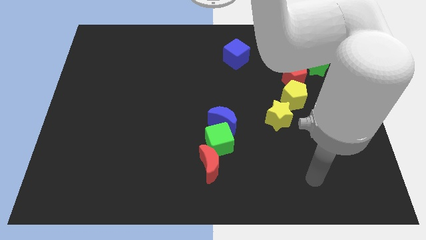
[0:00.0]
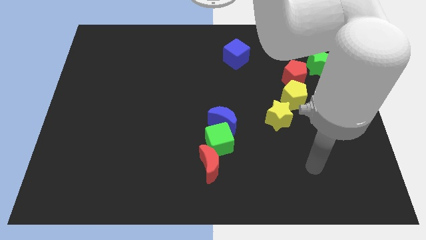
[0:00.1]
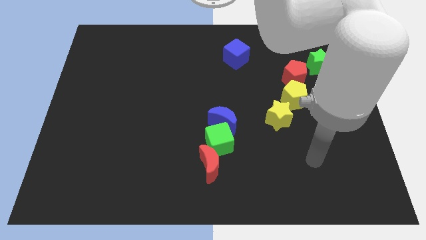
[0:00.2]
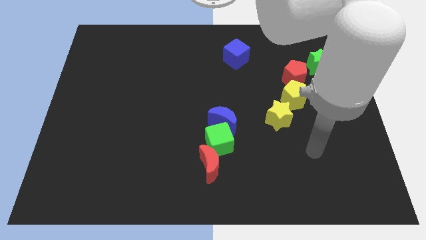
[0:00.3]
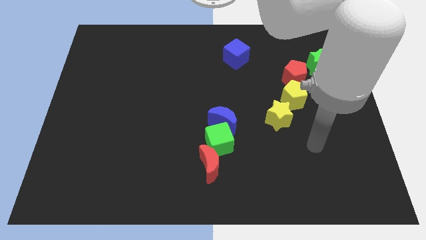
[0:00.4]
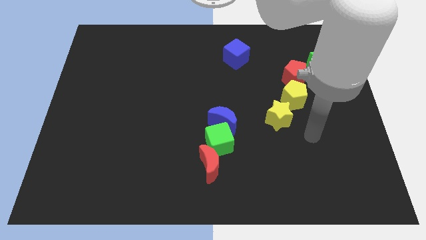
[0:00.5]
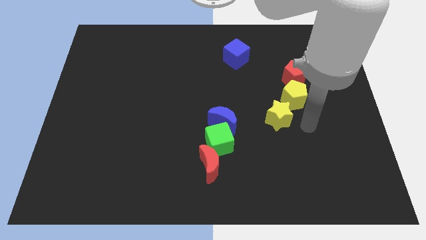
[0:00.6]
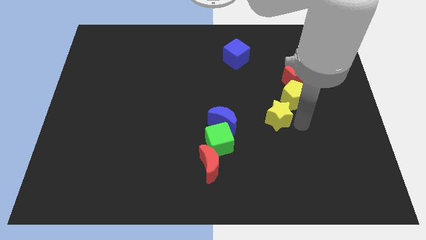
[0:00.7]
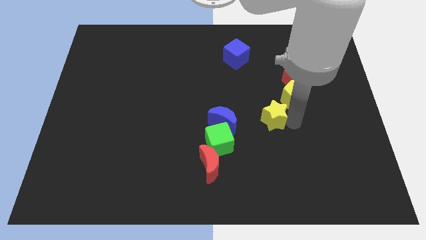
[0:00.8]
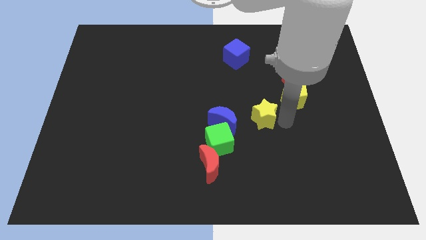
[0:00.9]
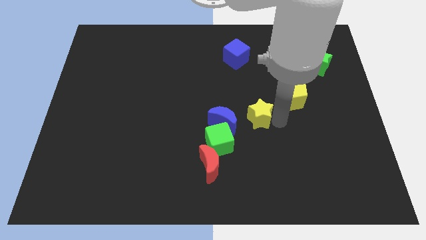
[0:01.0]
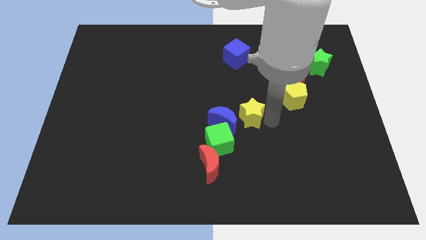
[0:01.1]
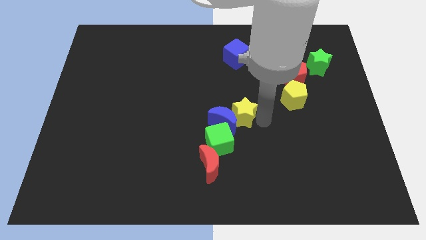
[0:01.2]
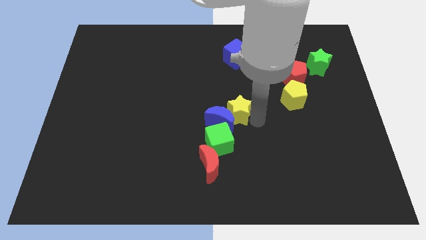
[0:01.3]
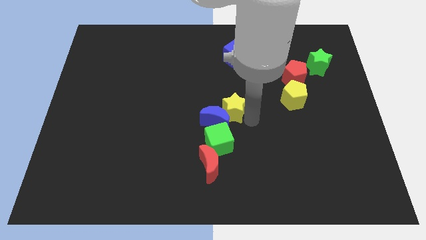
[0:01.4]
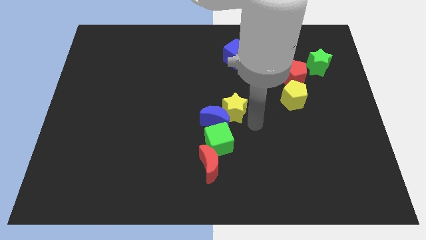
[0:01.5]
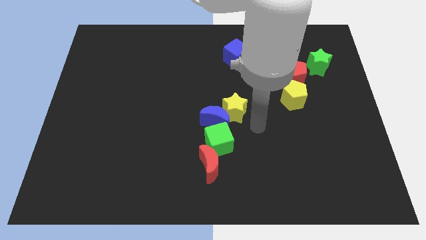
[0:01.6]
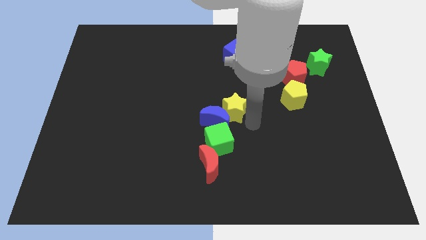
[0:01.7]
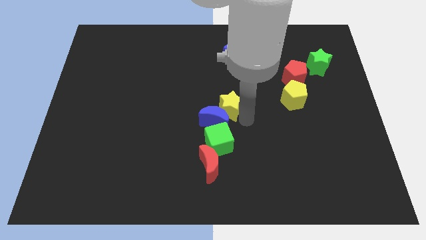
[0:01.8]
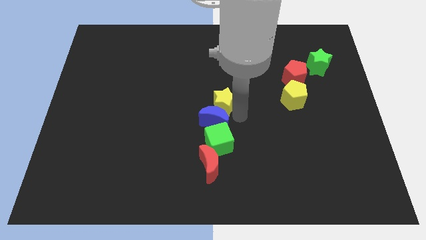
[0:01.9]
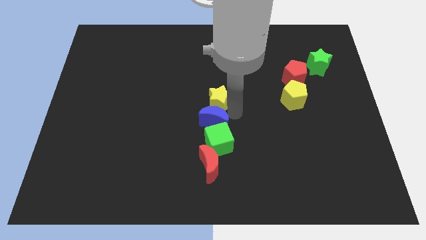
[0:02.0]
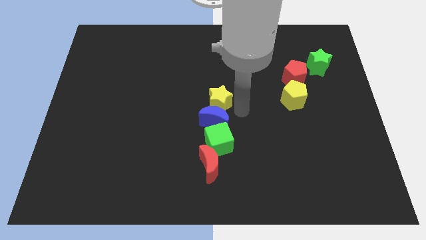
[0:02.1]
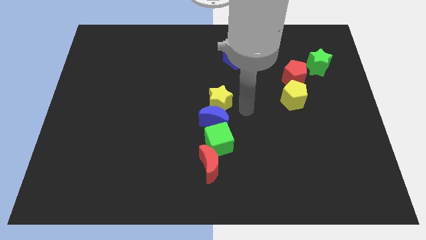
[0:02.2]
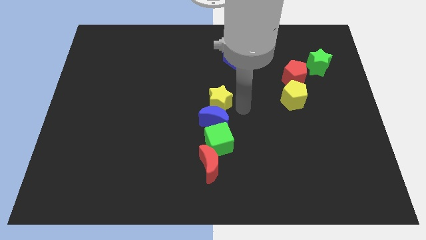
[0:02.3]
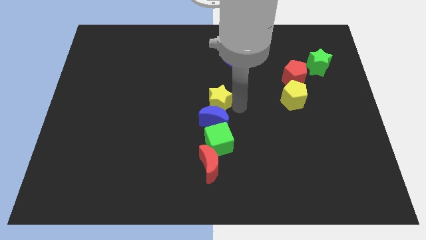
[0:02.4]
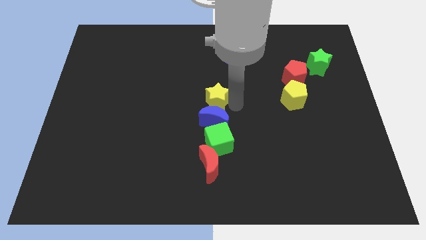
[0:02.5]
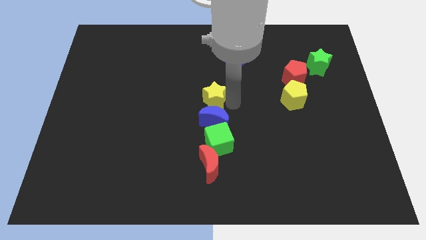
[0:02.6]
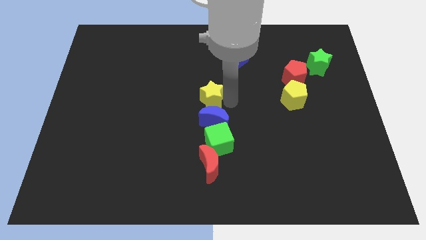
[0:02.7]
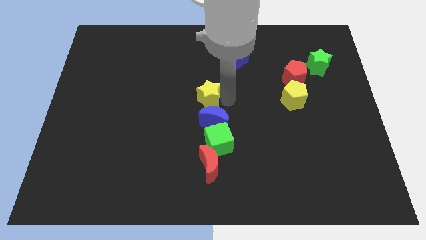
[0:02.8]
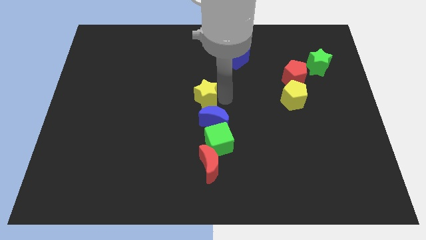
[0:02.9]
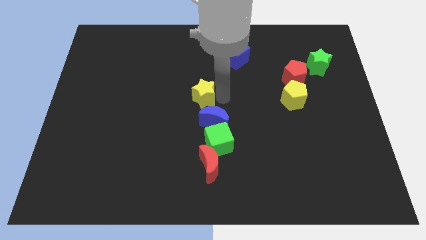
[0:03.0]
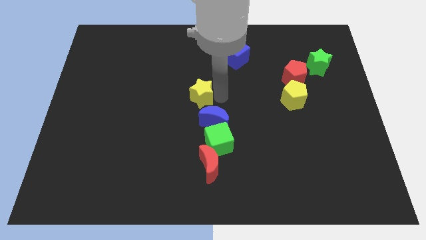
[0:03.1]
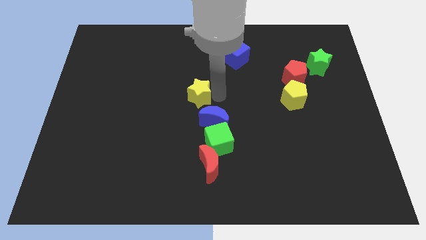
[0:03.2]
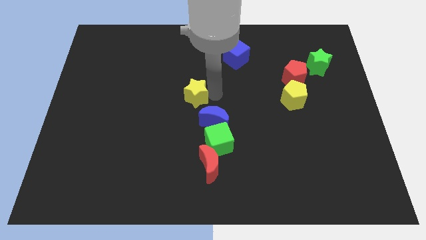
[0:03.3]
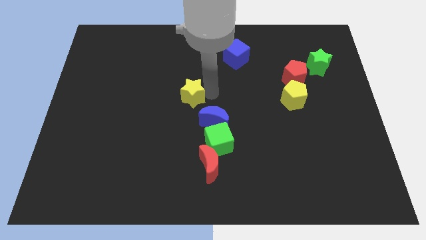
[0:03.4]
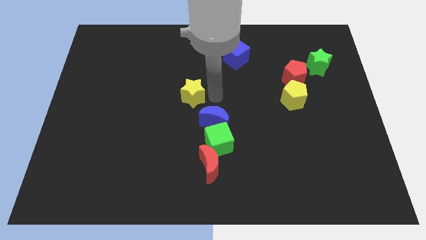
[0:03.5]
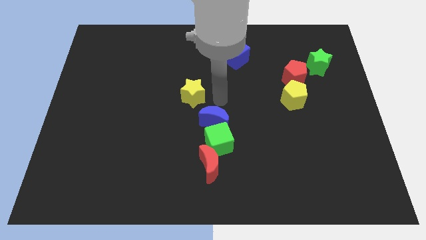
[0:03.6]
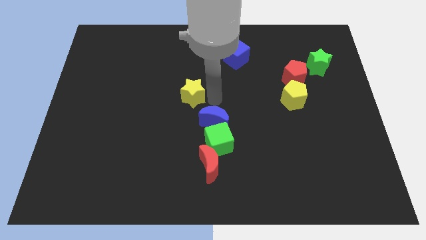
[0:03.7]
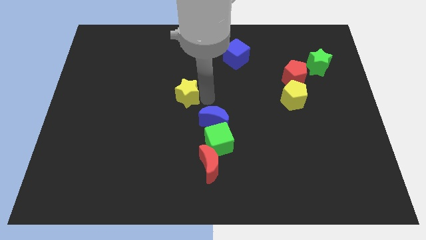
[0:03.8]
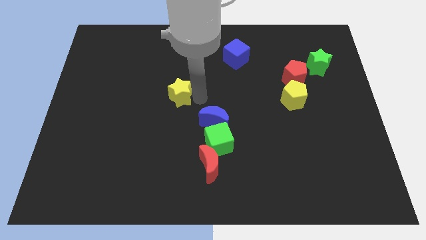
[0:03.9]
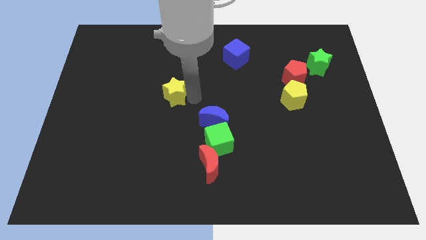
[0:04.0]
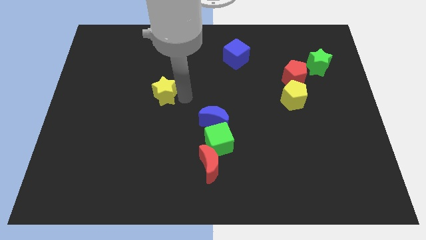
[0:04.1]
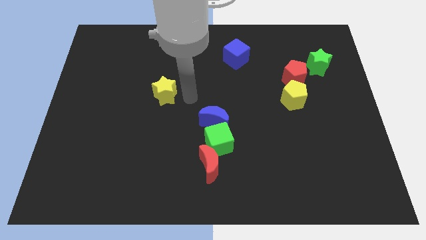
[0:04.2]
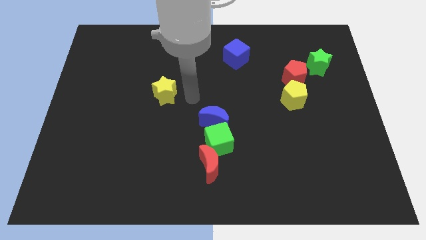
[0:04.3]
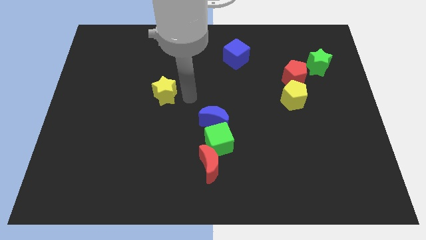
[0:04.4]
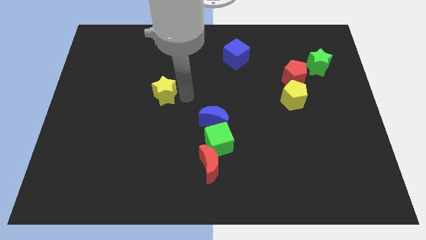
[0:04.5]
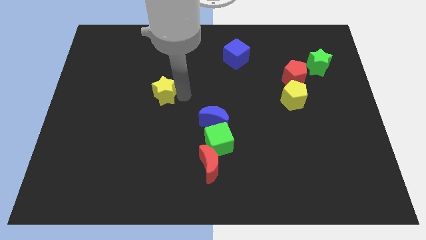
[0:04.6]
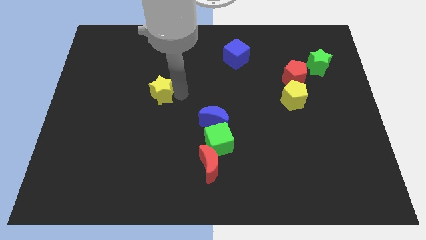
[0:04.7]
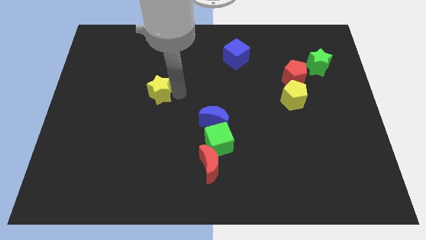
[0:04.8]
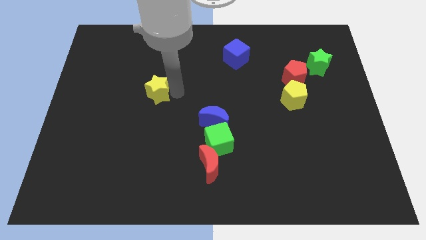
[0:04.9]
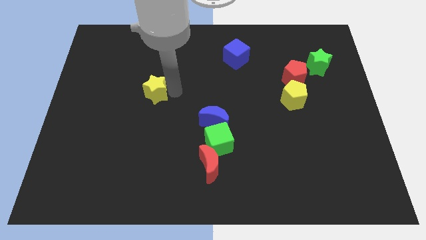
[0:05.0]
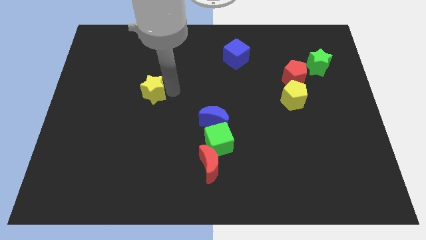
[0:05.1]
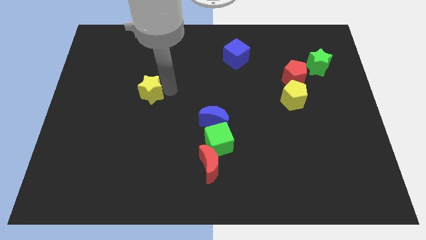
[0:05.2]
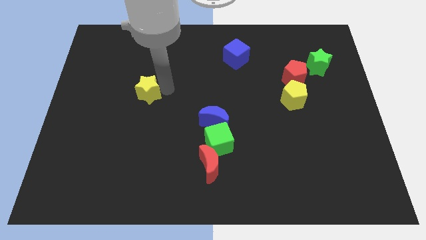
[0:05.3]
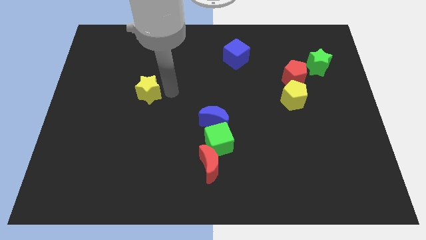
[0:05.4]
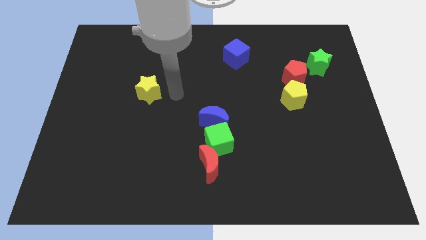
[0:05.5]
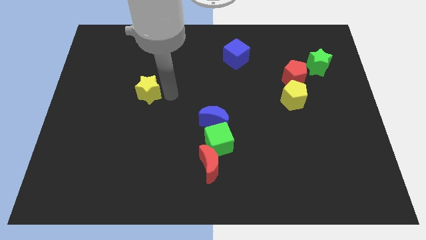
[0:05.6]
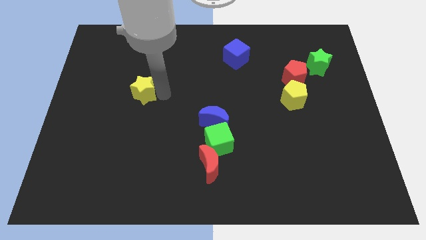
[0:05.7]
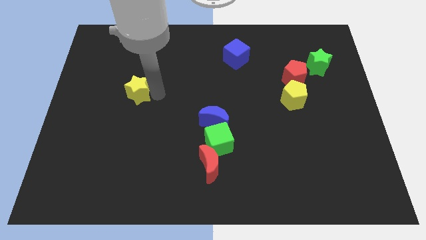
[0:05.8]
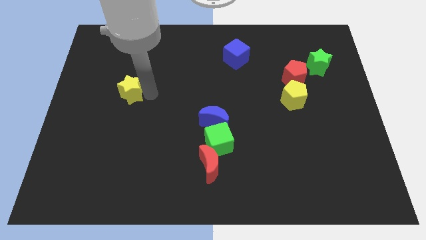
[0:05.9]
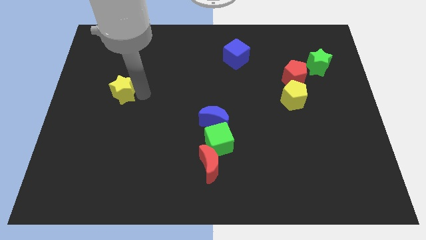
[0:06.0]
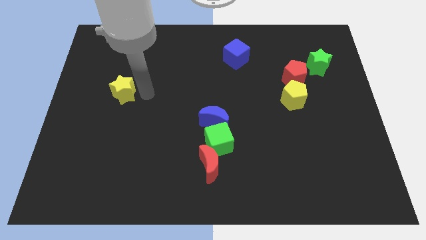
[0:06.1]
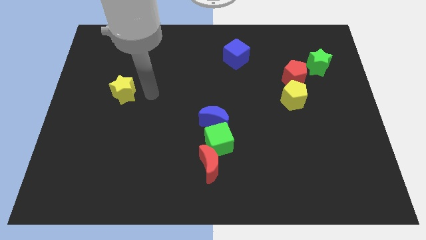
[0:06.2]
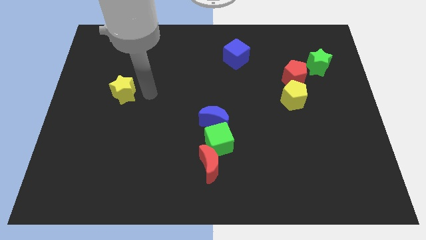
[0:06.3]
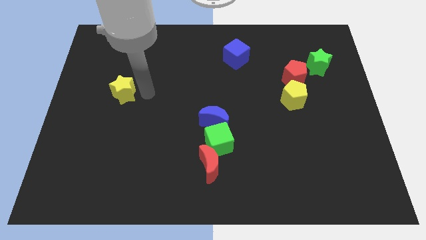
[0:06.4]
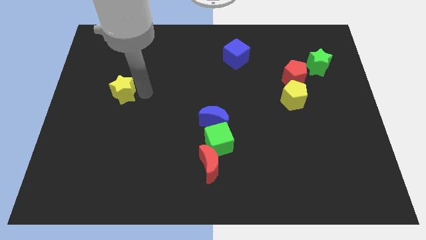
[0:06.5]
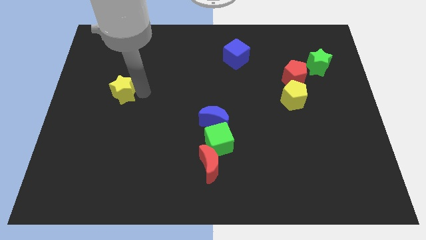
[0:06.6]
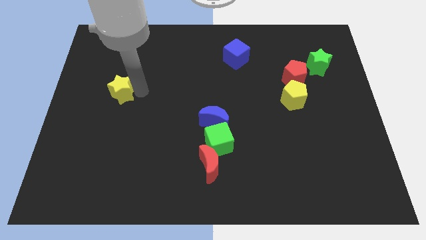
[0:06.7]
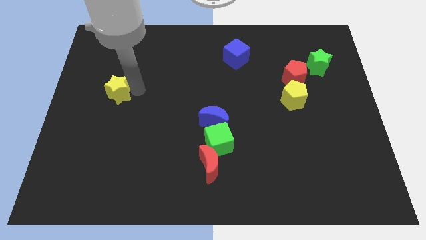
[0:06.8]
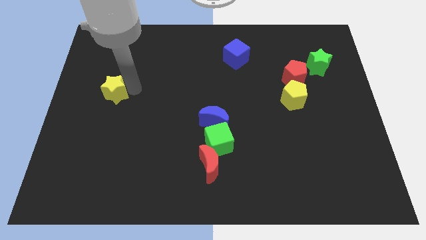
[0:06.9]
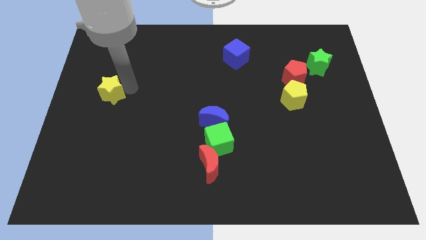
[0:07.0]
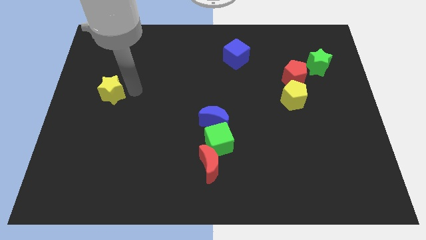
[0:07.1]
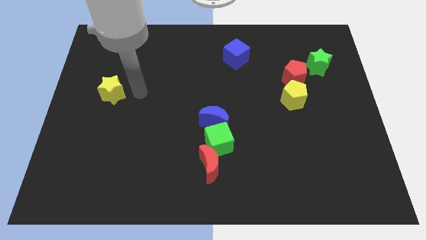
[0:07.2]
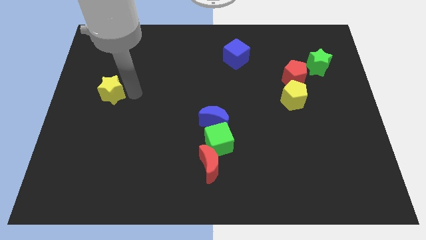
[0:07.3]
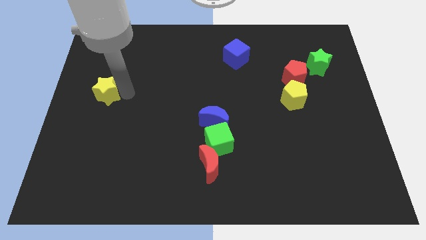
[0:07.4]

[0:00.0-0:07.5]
push the yellow star to the left side
